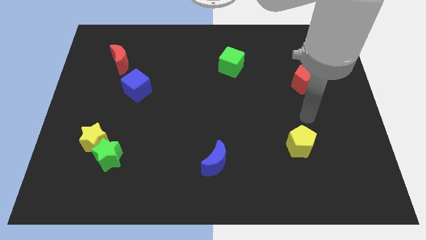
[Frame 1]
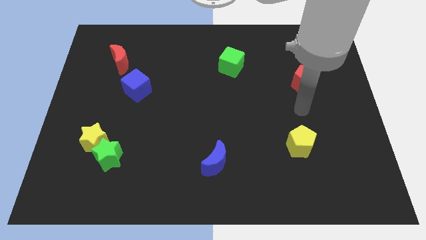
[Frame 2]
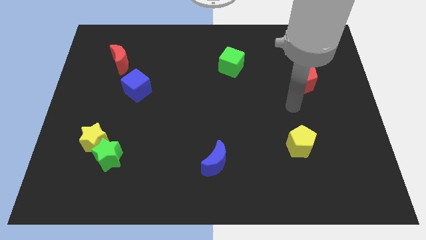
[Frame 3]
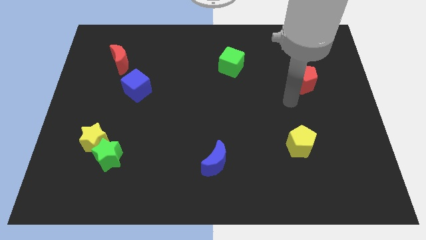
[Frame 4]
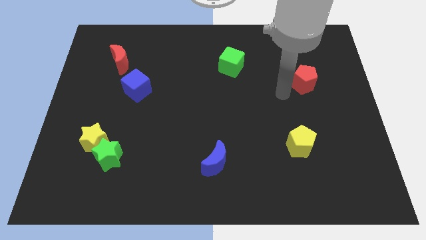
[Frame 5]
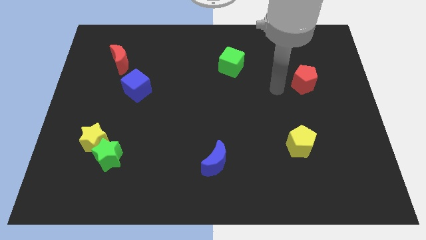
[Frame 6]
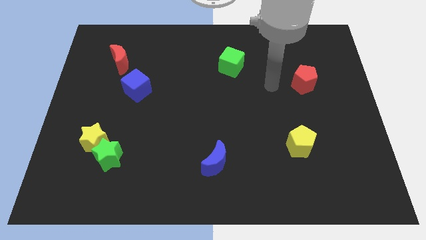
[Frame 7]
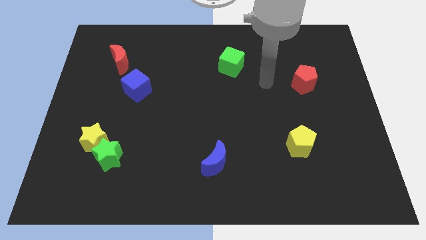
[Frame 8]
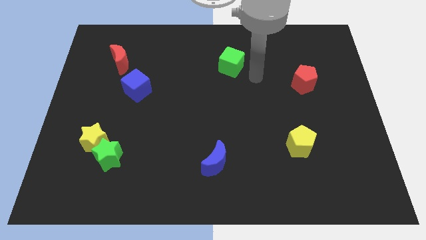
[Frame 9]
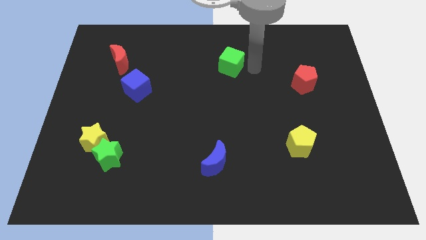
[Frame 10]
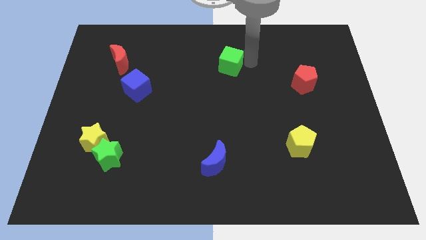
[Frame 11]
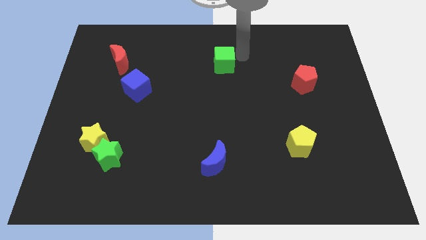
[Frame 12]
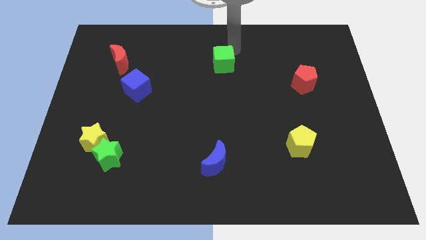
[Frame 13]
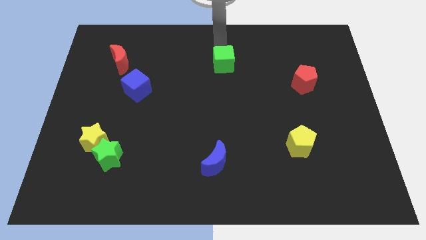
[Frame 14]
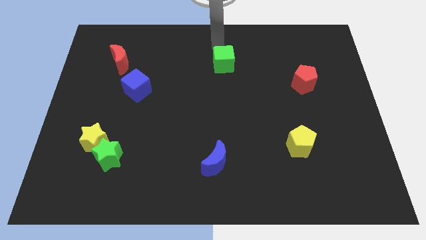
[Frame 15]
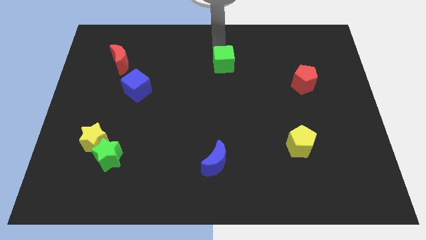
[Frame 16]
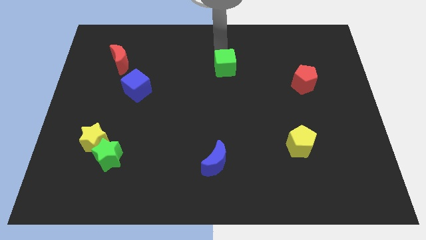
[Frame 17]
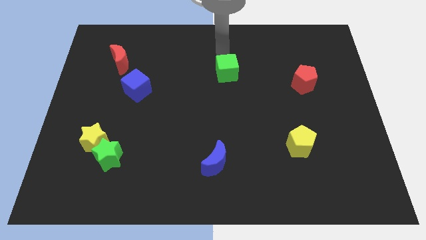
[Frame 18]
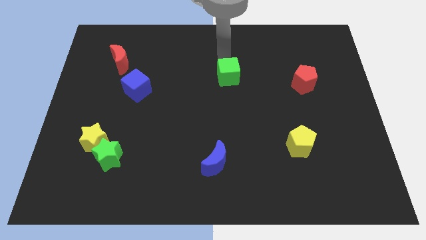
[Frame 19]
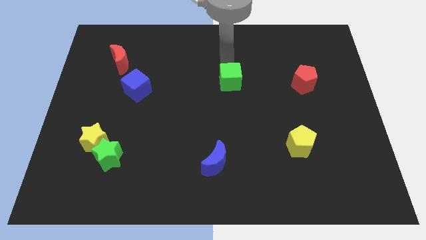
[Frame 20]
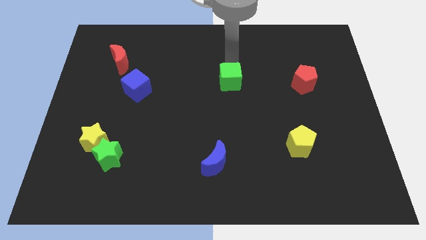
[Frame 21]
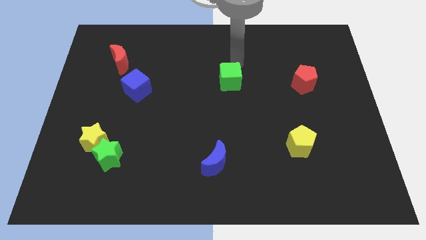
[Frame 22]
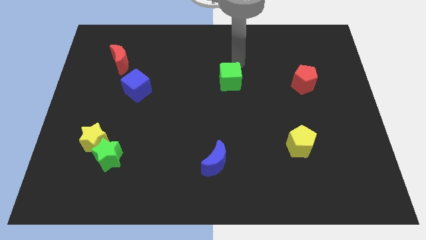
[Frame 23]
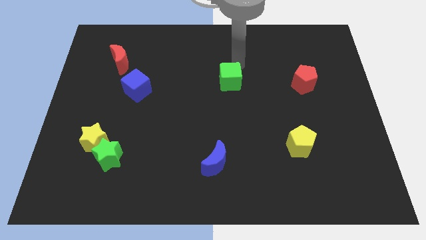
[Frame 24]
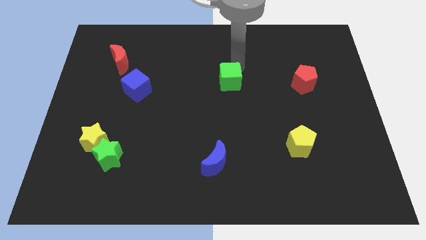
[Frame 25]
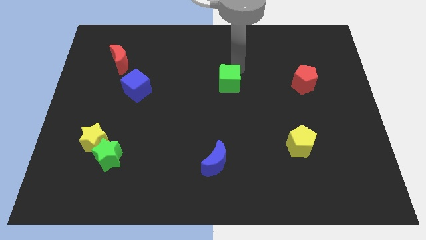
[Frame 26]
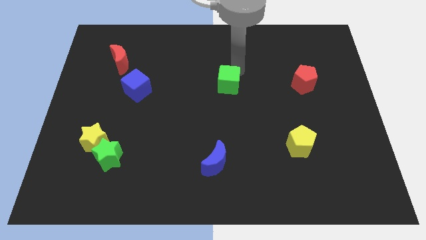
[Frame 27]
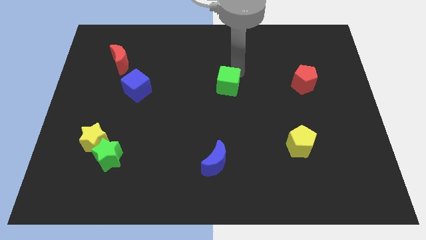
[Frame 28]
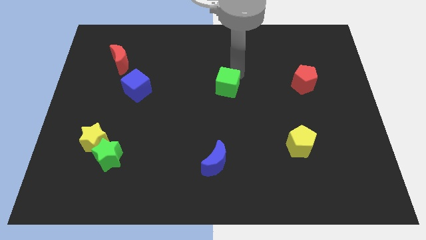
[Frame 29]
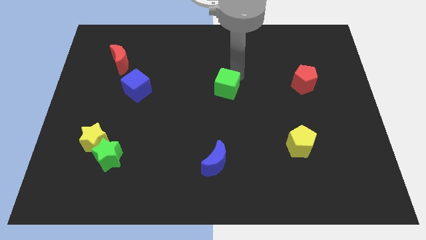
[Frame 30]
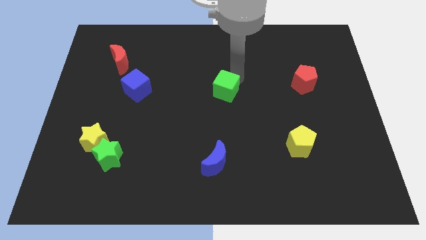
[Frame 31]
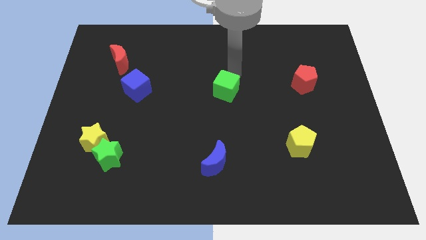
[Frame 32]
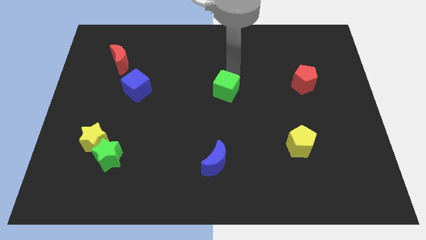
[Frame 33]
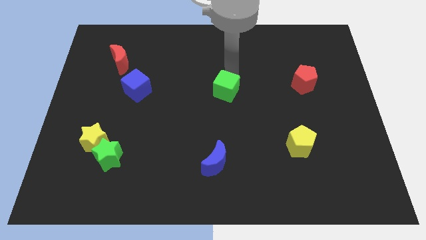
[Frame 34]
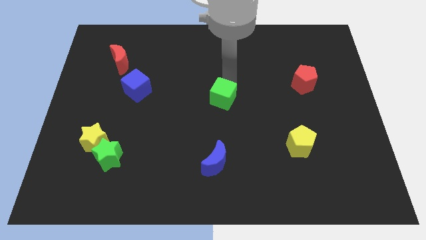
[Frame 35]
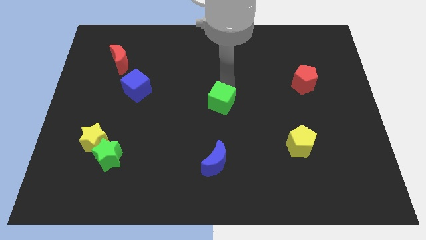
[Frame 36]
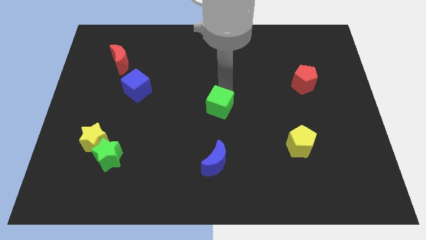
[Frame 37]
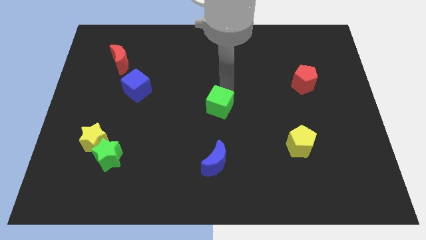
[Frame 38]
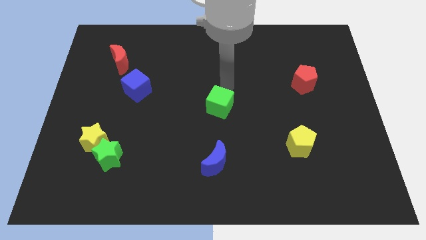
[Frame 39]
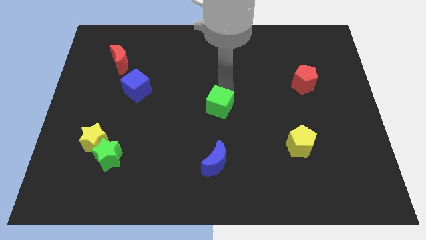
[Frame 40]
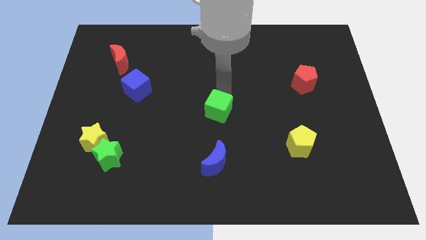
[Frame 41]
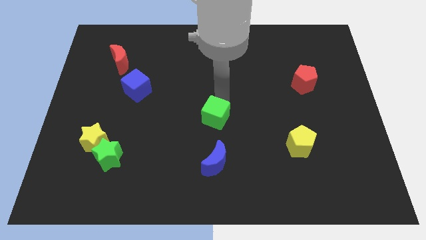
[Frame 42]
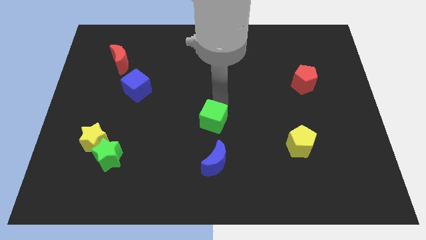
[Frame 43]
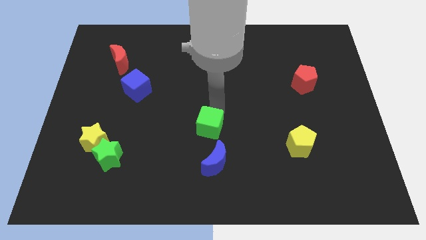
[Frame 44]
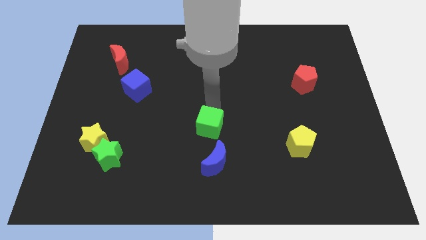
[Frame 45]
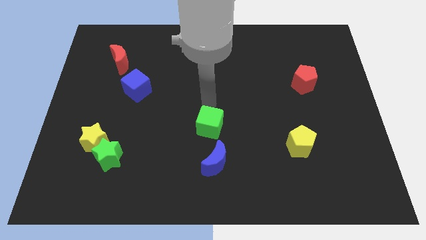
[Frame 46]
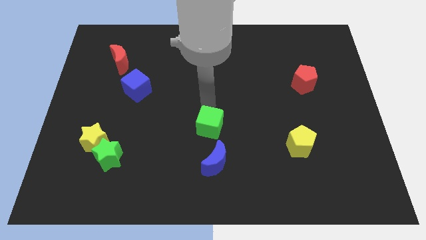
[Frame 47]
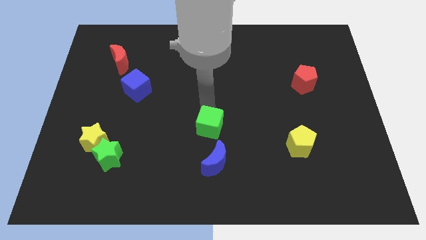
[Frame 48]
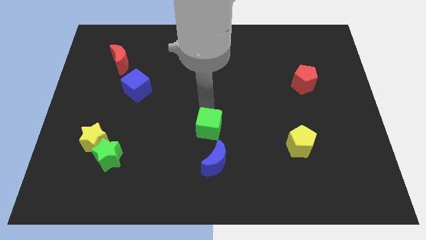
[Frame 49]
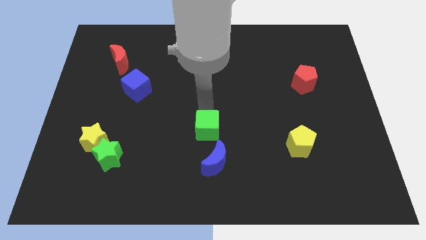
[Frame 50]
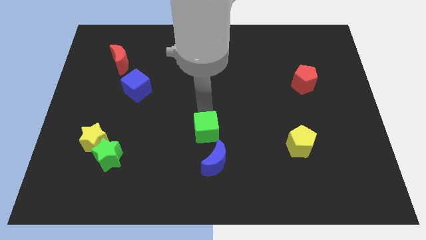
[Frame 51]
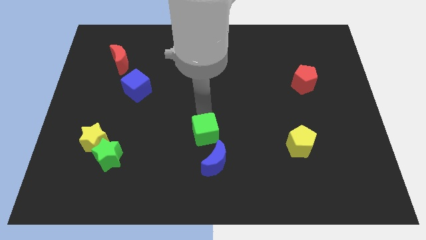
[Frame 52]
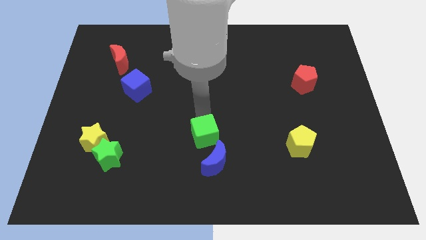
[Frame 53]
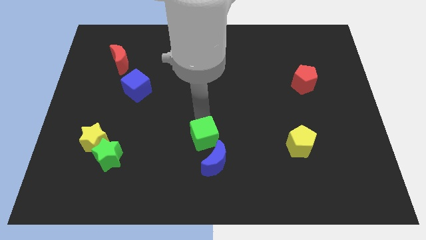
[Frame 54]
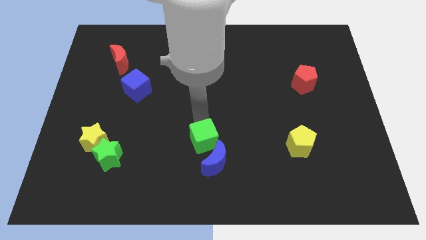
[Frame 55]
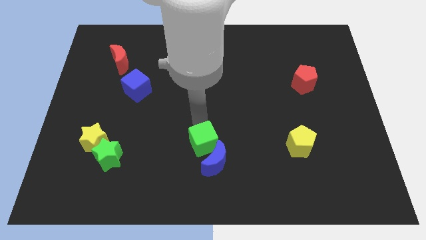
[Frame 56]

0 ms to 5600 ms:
put the green cube next to the blue moon

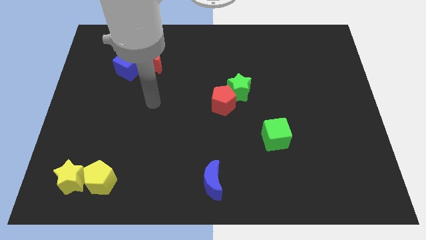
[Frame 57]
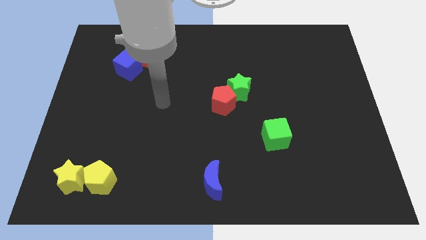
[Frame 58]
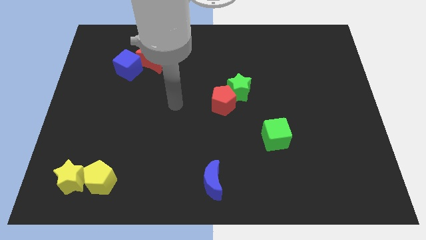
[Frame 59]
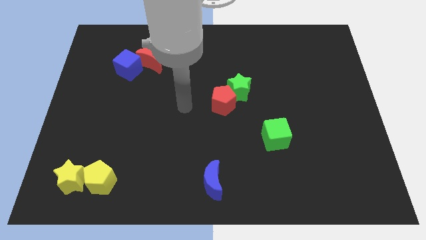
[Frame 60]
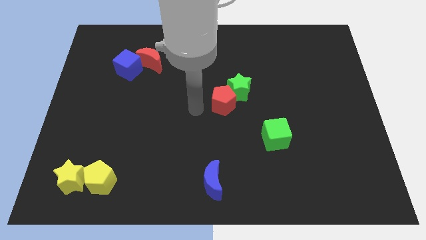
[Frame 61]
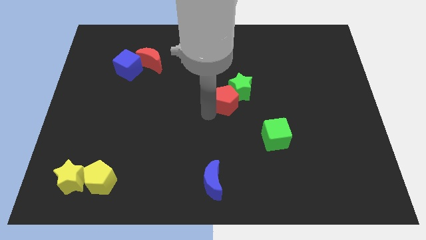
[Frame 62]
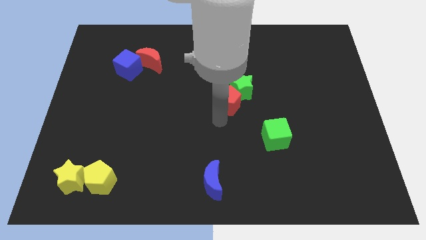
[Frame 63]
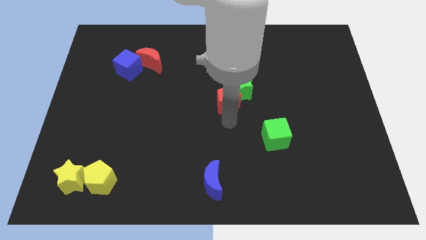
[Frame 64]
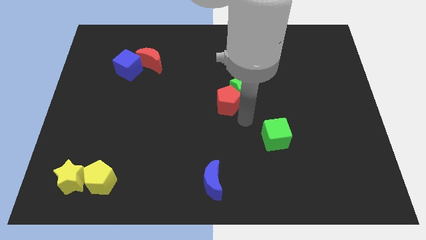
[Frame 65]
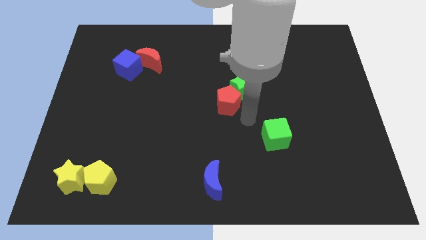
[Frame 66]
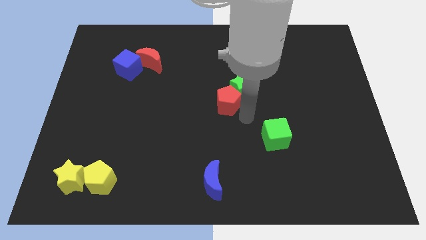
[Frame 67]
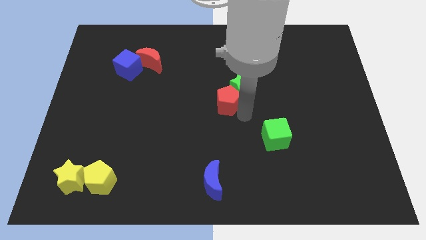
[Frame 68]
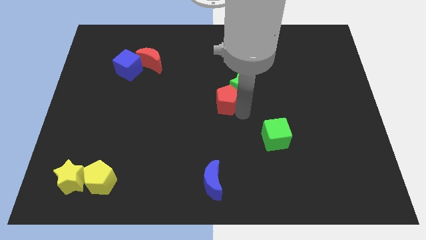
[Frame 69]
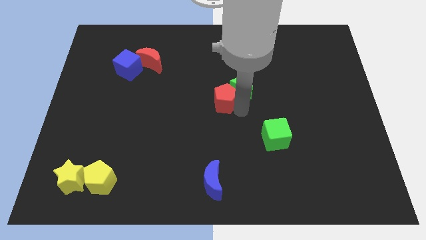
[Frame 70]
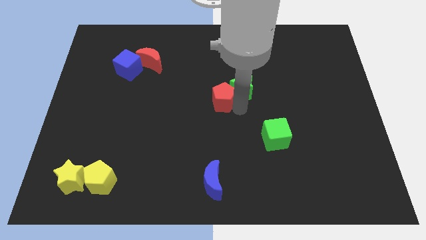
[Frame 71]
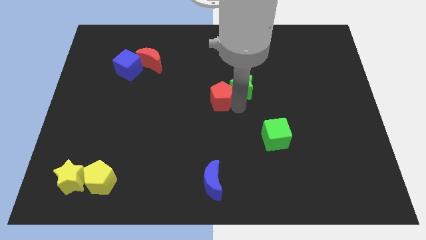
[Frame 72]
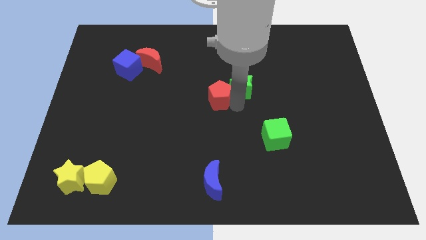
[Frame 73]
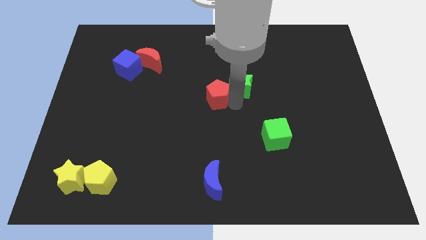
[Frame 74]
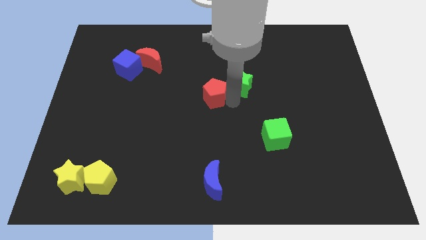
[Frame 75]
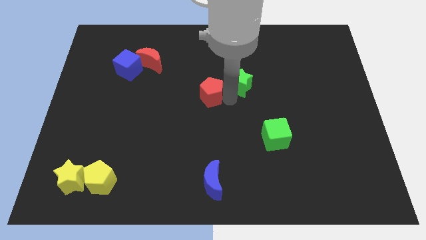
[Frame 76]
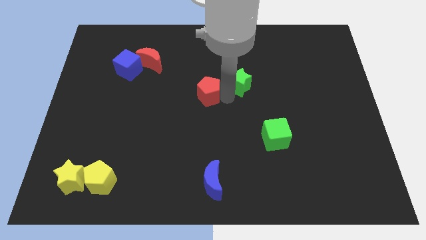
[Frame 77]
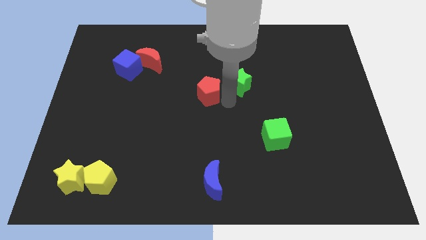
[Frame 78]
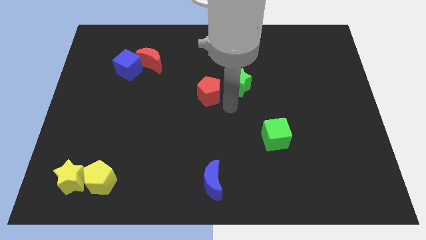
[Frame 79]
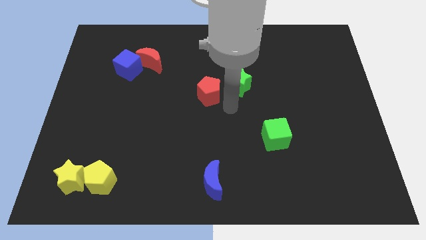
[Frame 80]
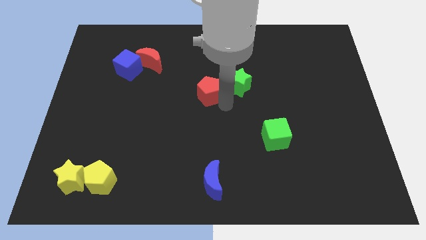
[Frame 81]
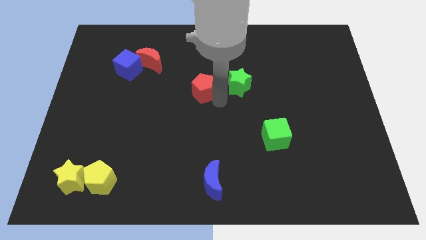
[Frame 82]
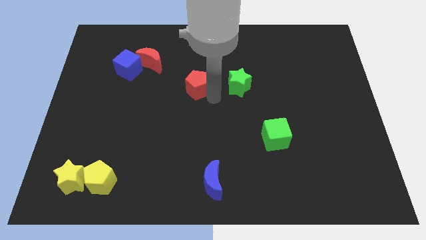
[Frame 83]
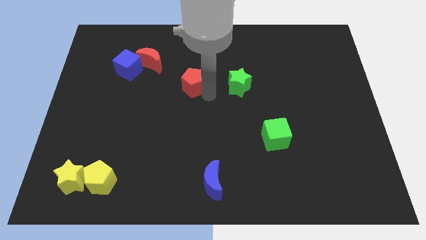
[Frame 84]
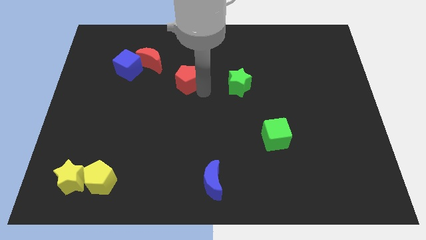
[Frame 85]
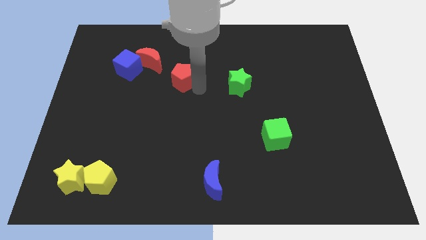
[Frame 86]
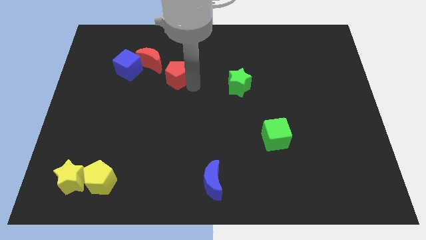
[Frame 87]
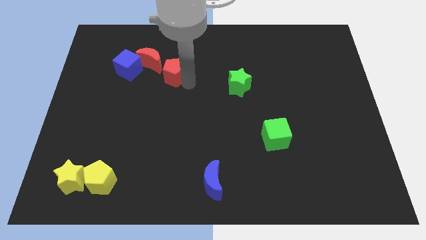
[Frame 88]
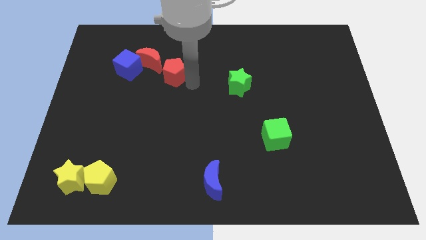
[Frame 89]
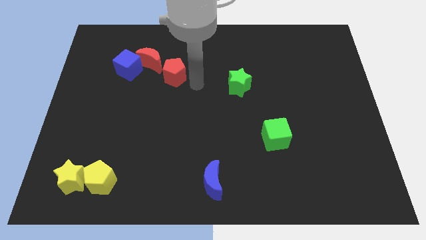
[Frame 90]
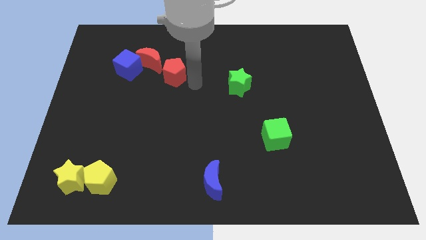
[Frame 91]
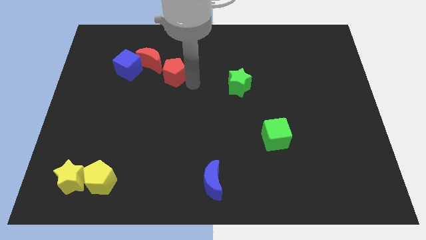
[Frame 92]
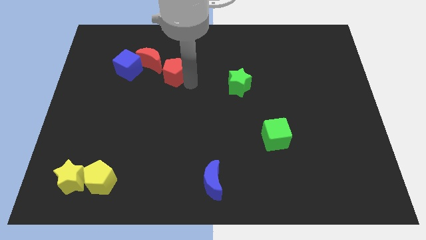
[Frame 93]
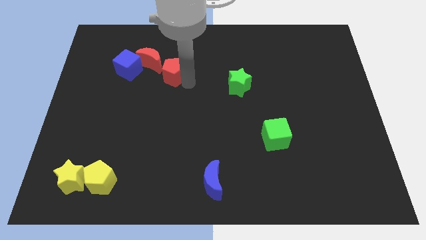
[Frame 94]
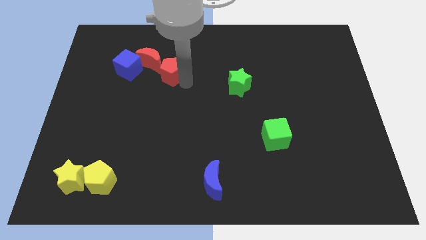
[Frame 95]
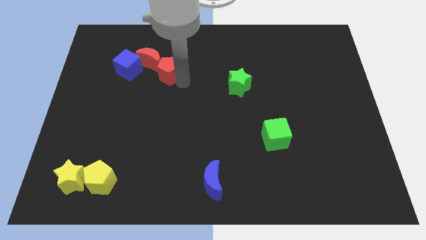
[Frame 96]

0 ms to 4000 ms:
slide the red pentagon towards the red moon
